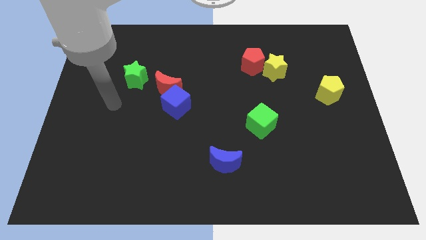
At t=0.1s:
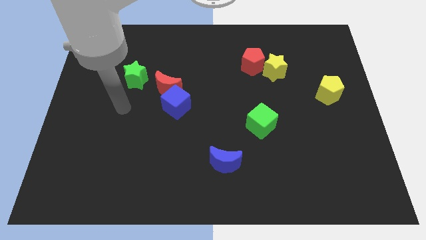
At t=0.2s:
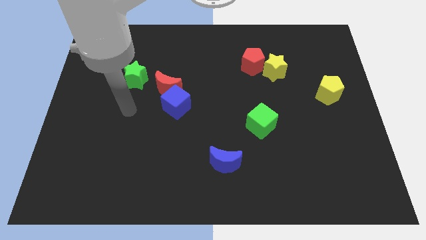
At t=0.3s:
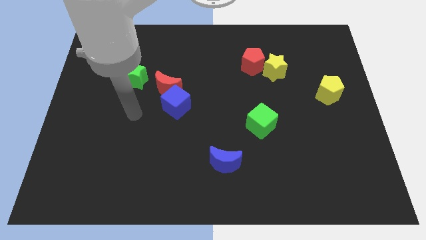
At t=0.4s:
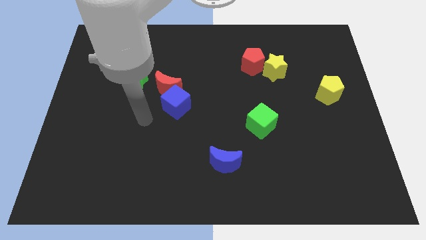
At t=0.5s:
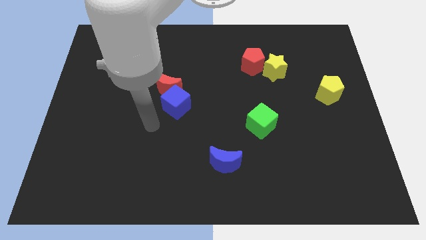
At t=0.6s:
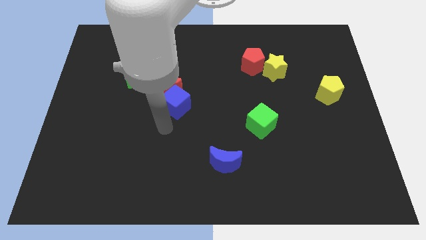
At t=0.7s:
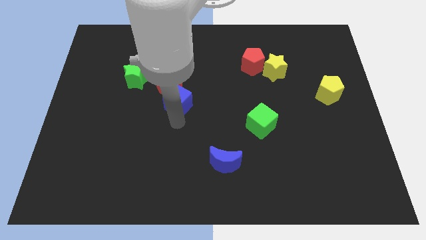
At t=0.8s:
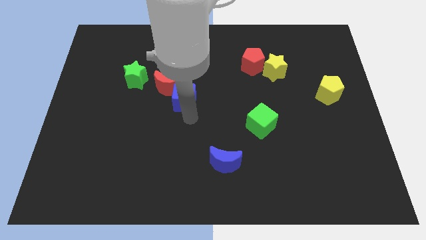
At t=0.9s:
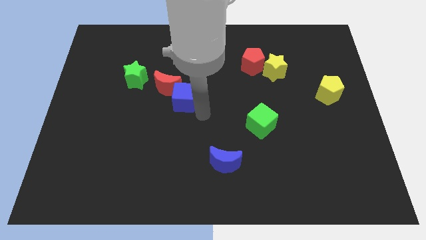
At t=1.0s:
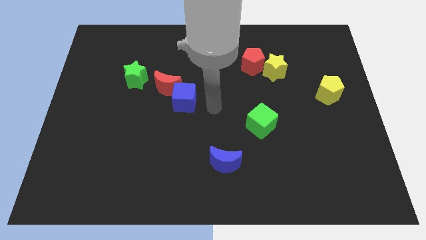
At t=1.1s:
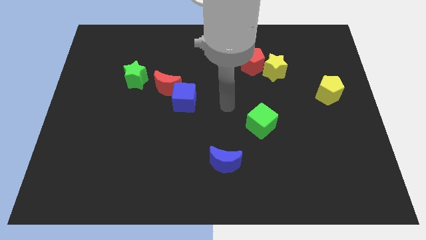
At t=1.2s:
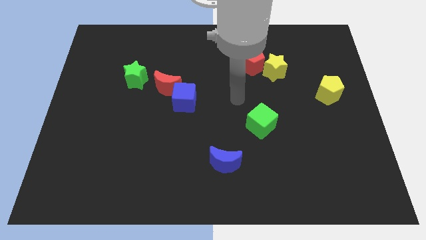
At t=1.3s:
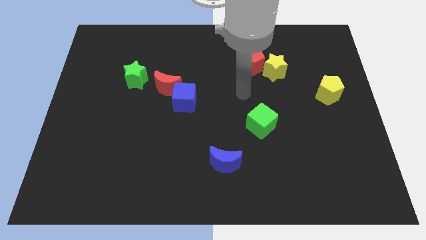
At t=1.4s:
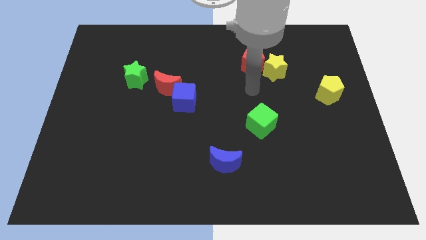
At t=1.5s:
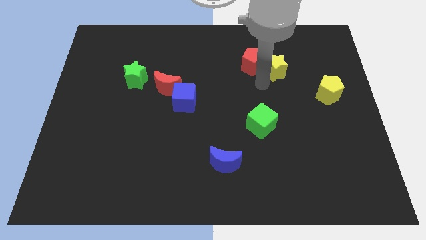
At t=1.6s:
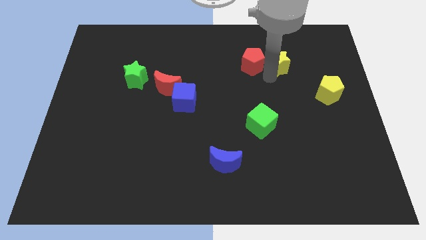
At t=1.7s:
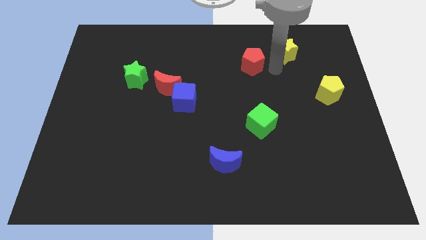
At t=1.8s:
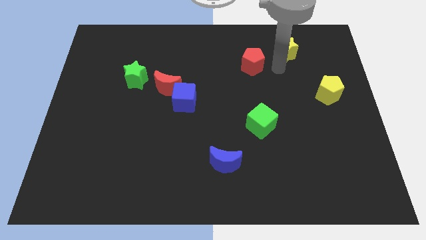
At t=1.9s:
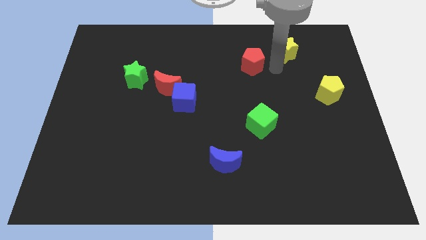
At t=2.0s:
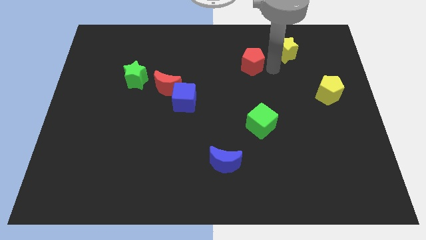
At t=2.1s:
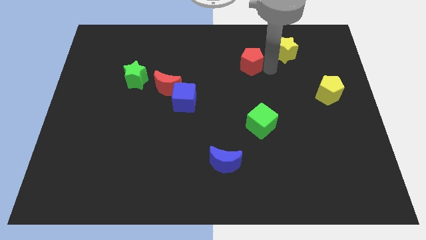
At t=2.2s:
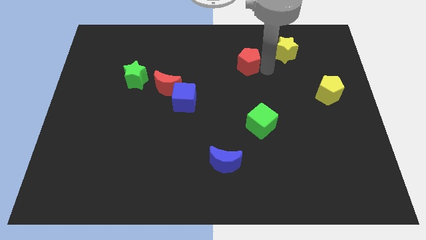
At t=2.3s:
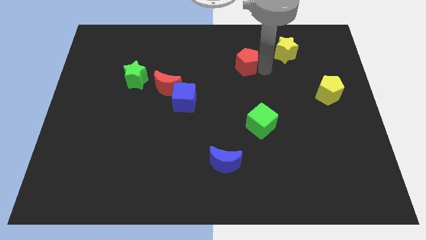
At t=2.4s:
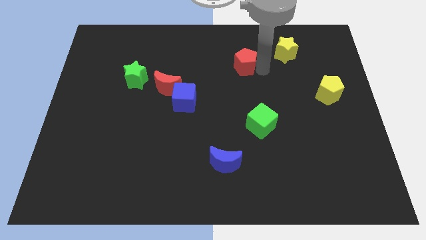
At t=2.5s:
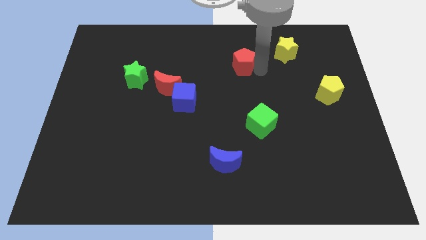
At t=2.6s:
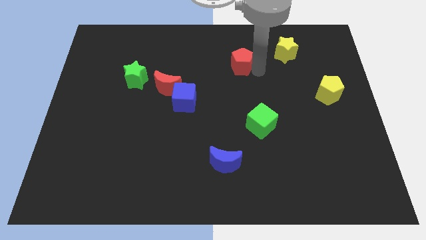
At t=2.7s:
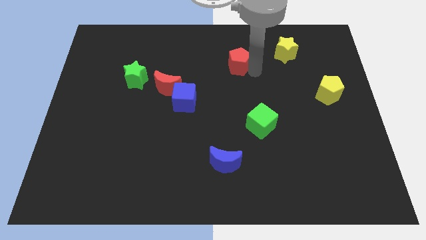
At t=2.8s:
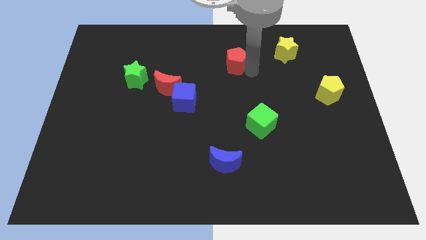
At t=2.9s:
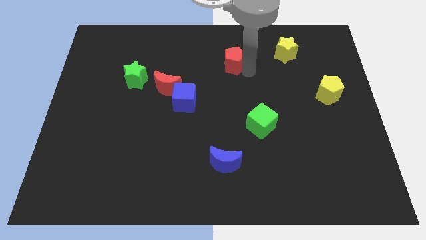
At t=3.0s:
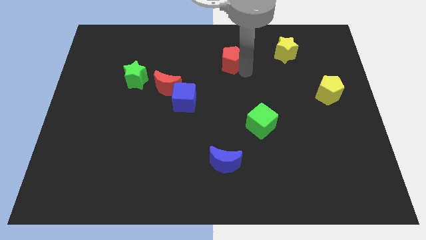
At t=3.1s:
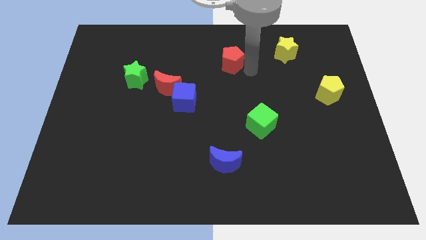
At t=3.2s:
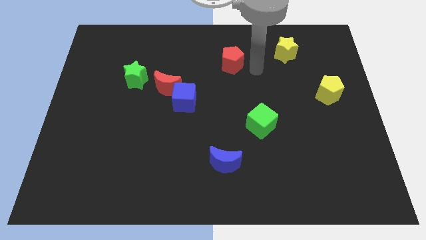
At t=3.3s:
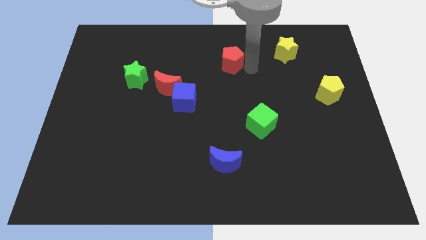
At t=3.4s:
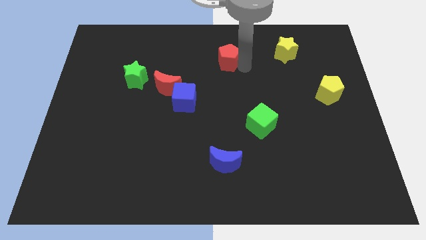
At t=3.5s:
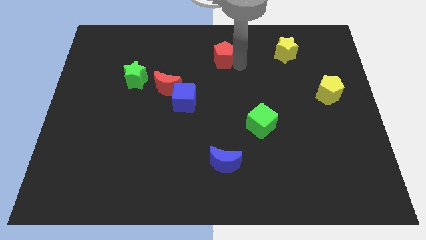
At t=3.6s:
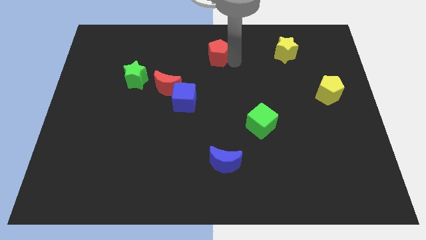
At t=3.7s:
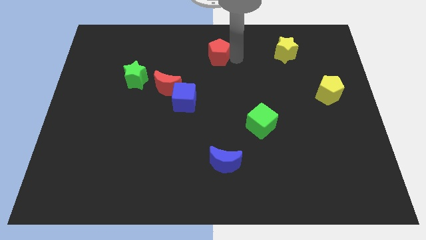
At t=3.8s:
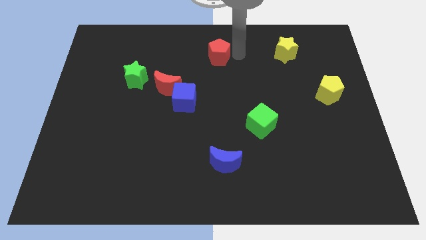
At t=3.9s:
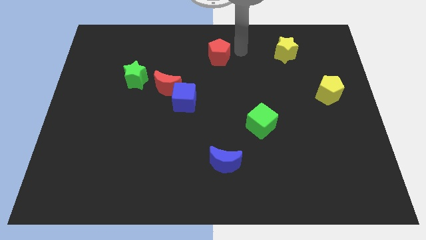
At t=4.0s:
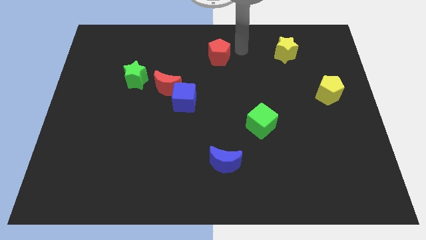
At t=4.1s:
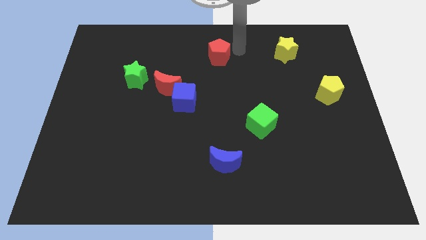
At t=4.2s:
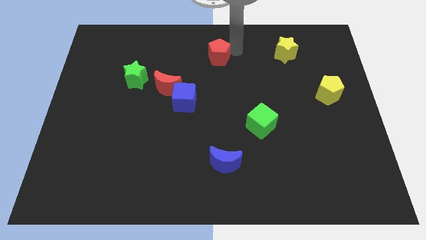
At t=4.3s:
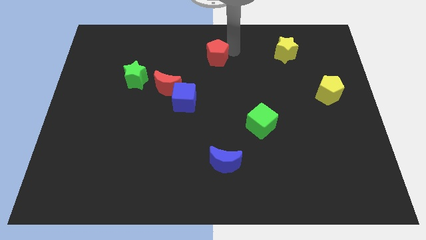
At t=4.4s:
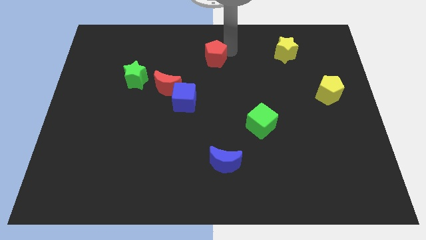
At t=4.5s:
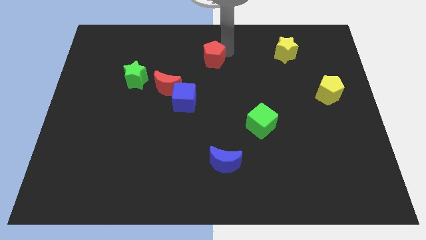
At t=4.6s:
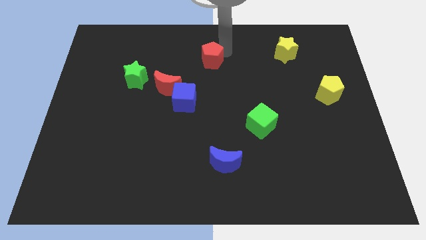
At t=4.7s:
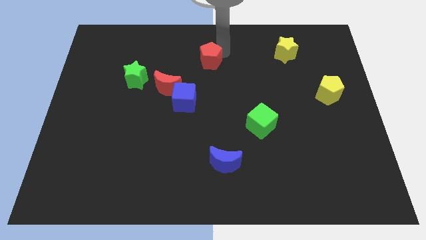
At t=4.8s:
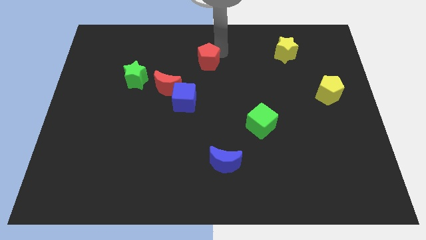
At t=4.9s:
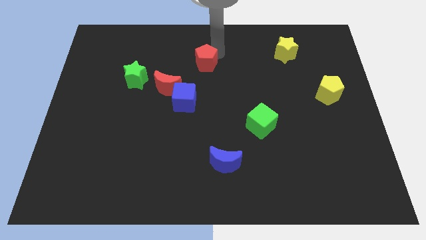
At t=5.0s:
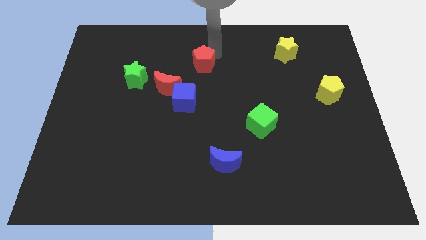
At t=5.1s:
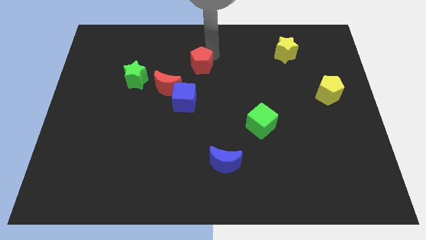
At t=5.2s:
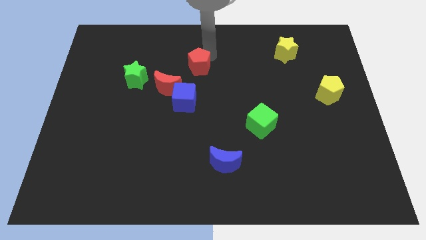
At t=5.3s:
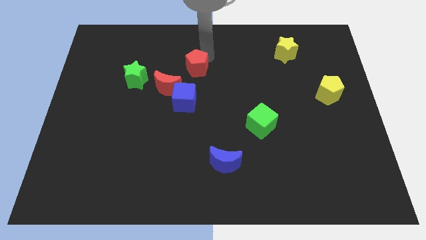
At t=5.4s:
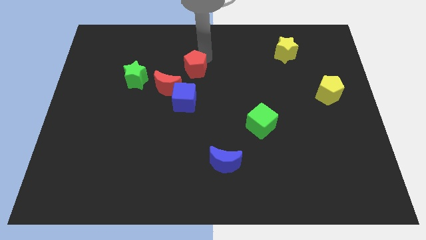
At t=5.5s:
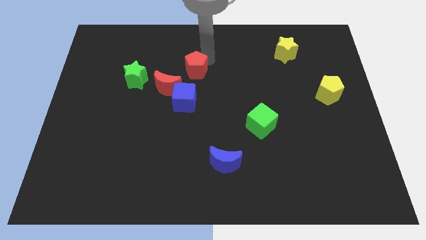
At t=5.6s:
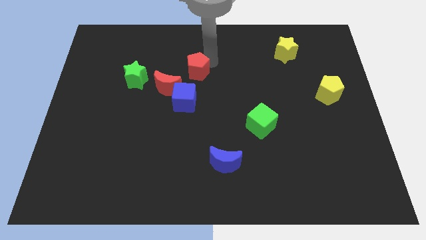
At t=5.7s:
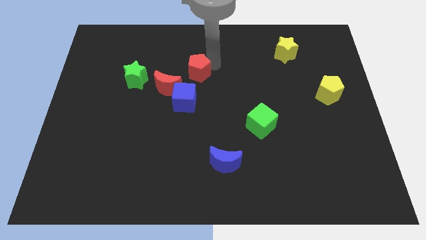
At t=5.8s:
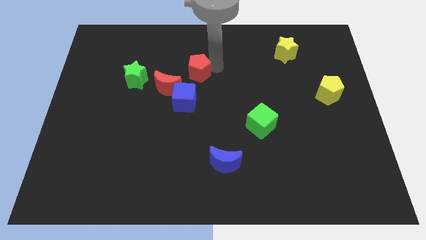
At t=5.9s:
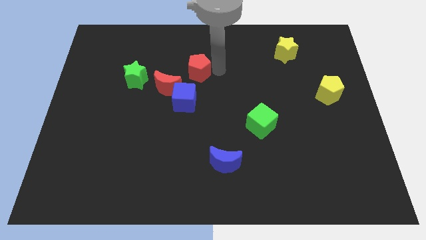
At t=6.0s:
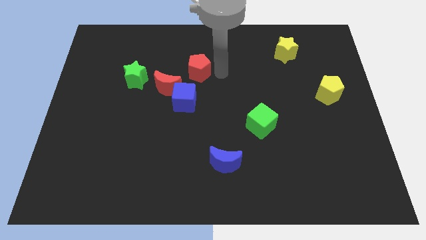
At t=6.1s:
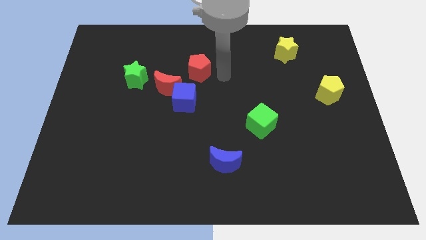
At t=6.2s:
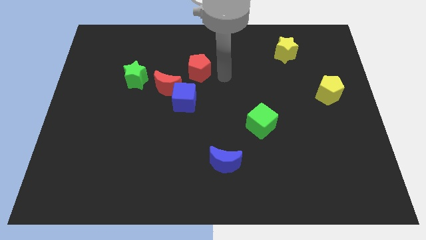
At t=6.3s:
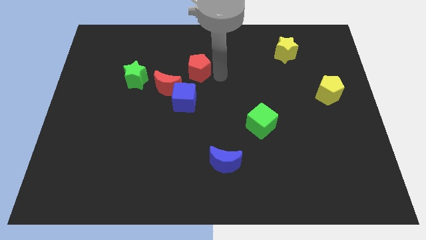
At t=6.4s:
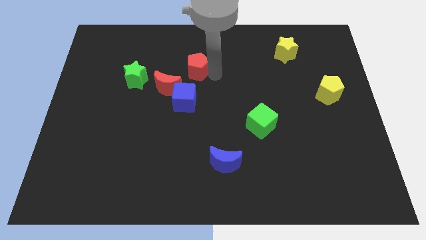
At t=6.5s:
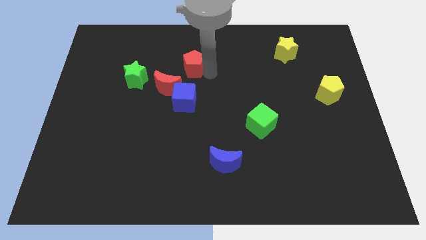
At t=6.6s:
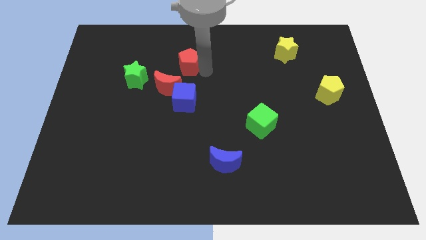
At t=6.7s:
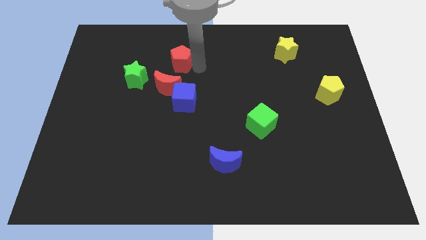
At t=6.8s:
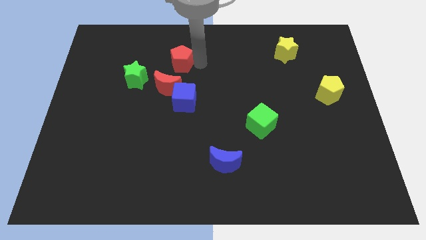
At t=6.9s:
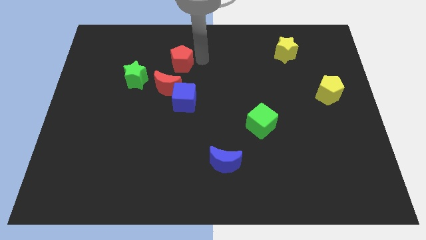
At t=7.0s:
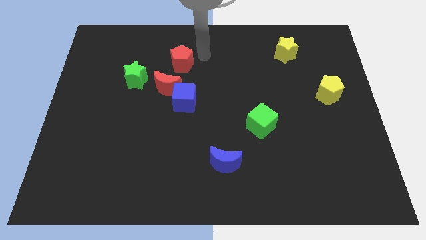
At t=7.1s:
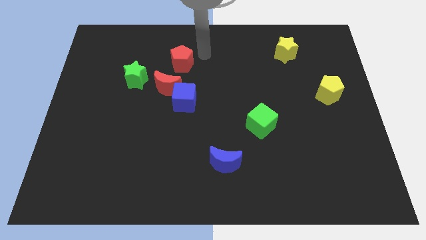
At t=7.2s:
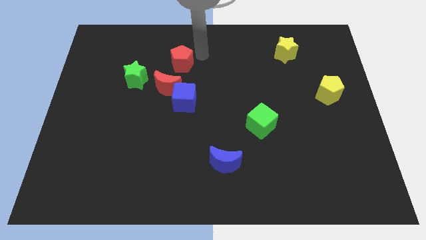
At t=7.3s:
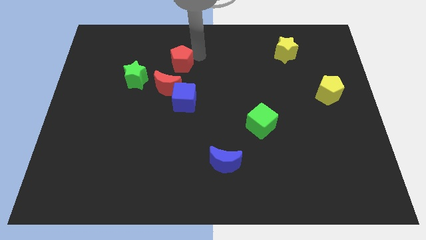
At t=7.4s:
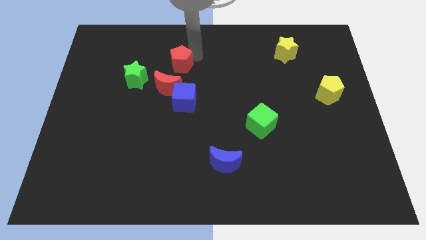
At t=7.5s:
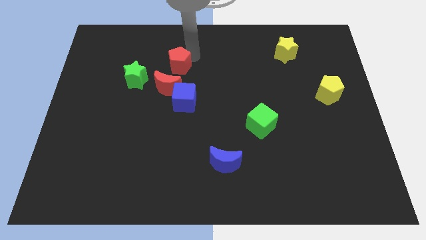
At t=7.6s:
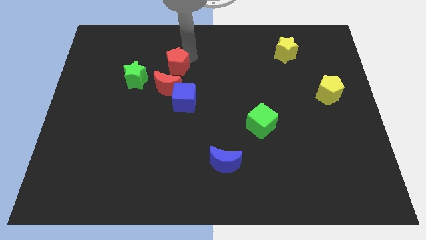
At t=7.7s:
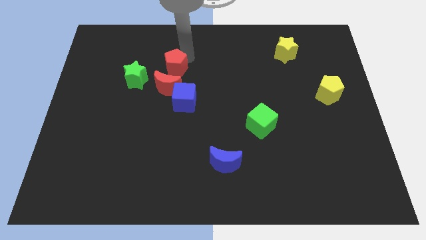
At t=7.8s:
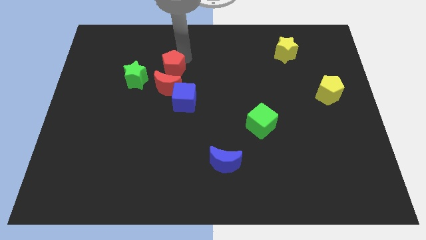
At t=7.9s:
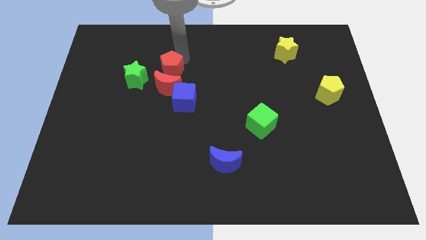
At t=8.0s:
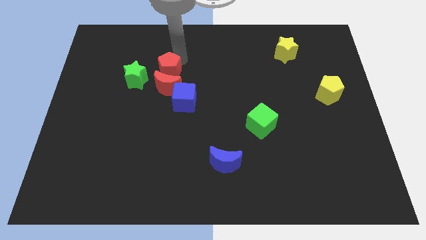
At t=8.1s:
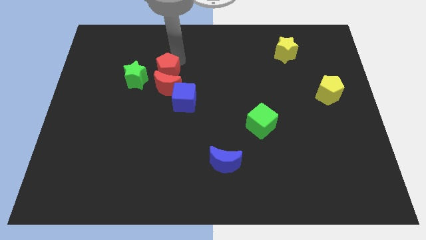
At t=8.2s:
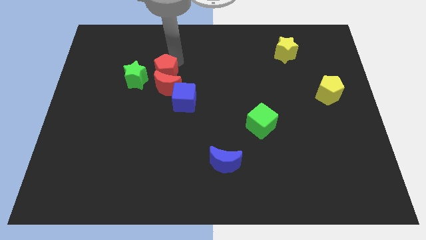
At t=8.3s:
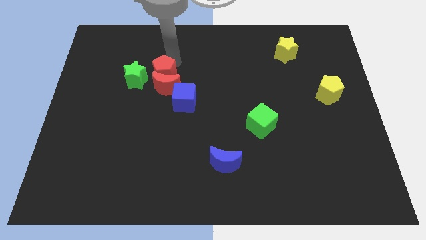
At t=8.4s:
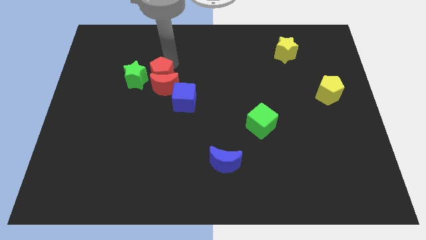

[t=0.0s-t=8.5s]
put the red pentagon next to the green star
